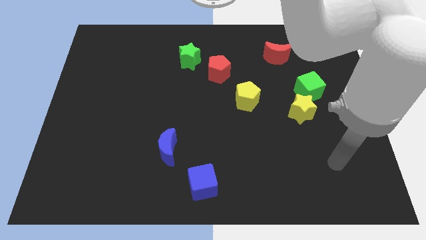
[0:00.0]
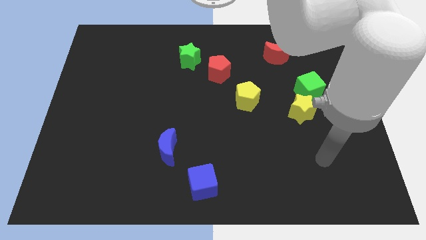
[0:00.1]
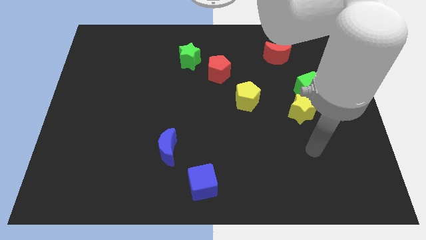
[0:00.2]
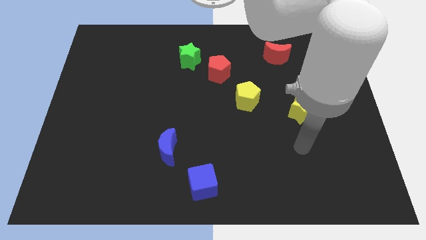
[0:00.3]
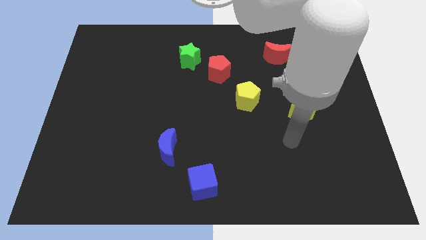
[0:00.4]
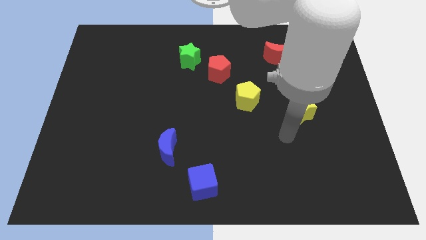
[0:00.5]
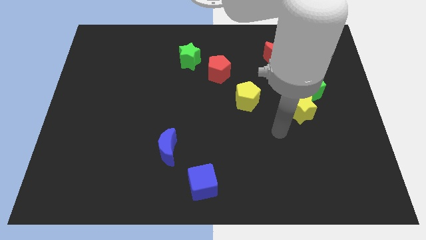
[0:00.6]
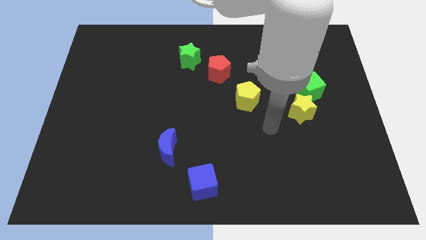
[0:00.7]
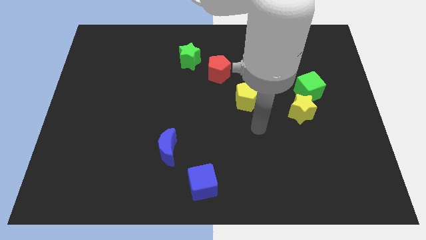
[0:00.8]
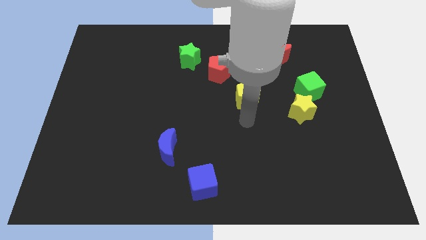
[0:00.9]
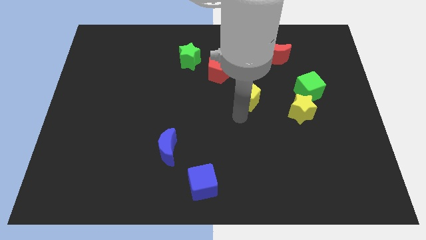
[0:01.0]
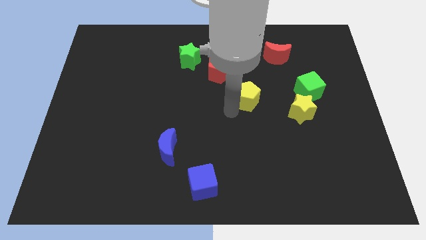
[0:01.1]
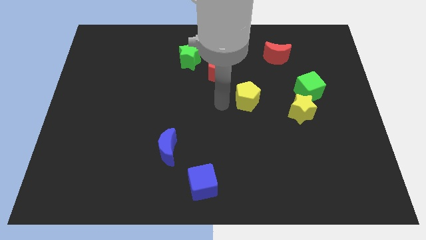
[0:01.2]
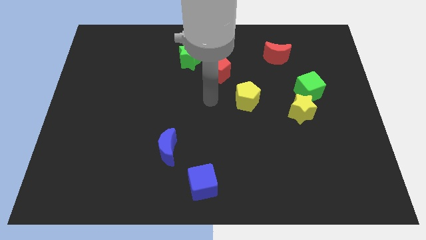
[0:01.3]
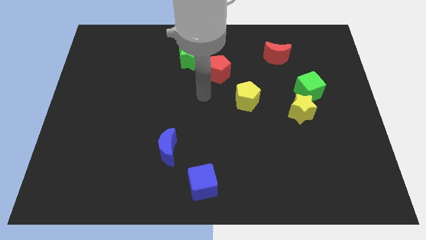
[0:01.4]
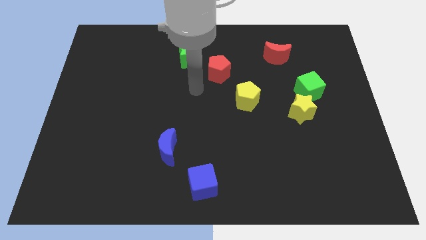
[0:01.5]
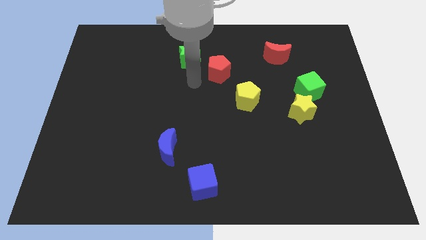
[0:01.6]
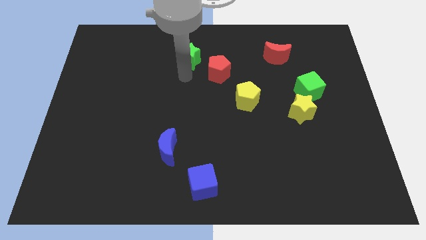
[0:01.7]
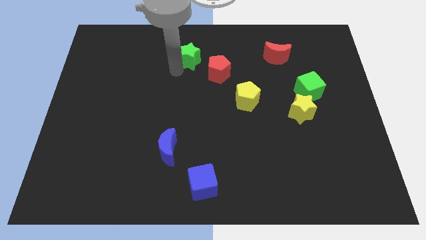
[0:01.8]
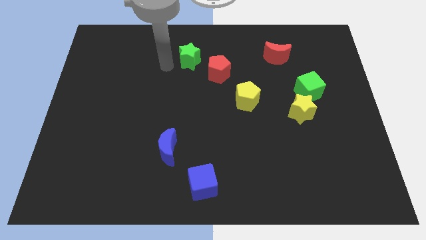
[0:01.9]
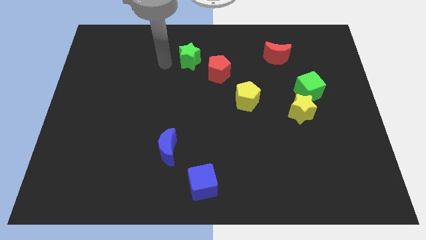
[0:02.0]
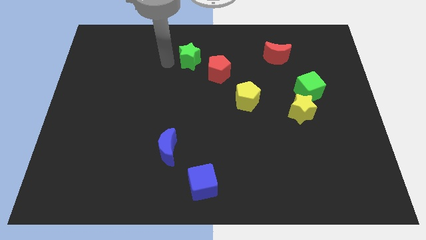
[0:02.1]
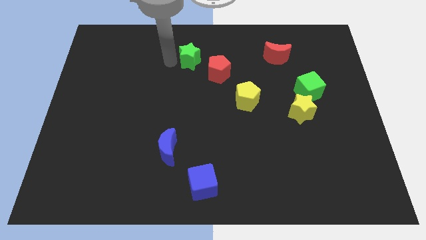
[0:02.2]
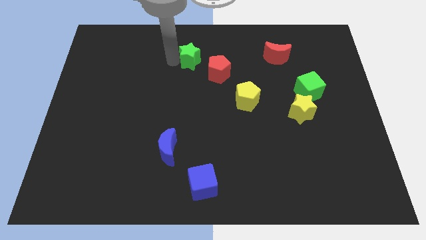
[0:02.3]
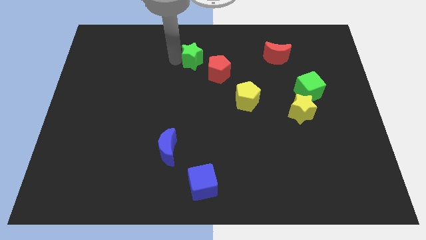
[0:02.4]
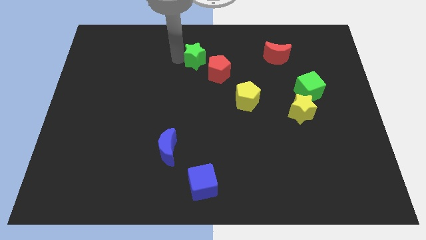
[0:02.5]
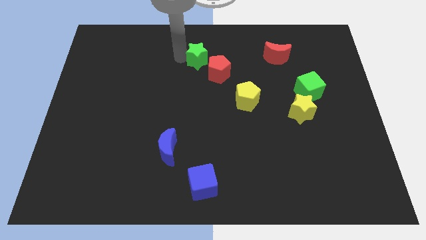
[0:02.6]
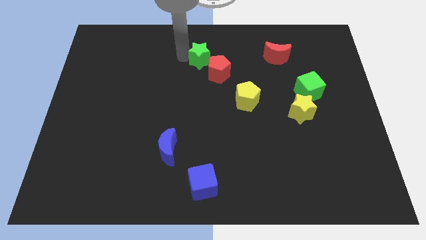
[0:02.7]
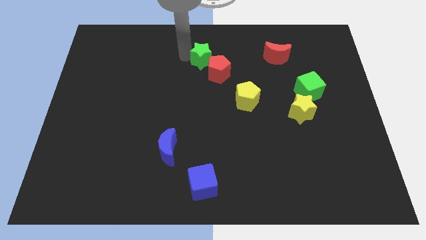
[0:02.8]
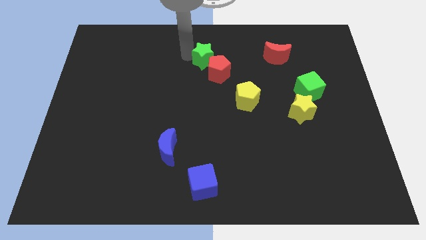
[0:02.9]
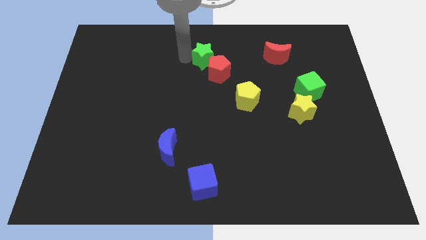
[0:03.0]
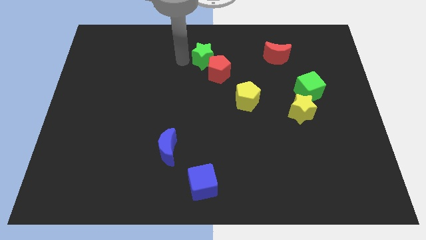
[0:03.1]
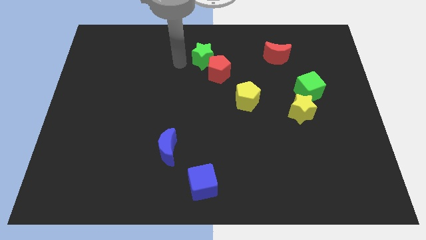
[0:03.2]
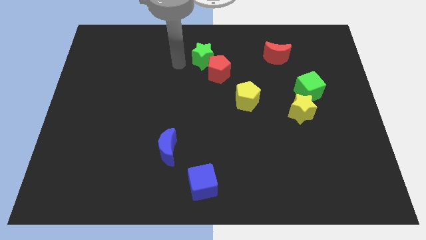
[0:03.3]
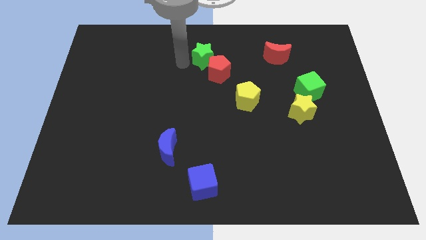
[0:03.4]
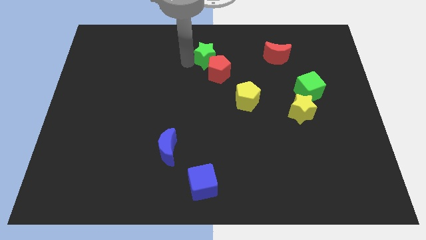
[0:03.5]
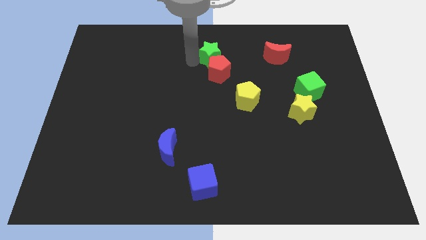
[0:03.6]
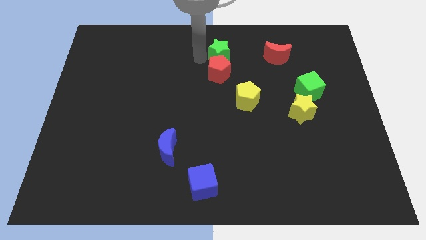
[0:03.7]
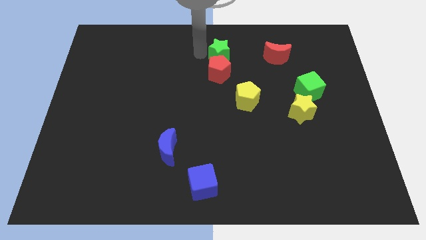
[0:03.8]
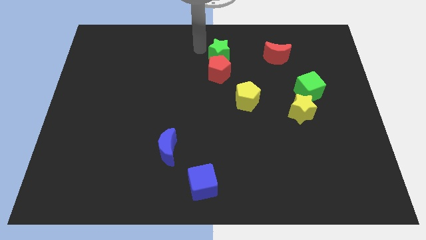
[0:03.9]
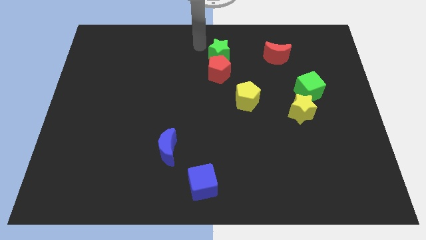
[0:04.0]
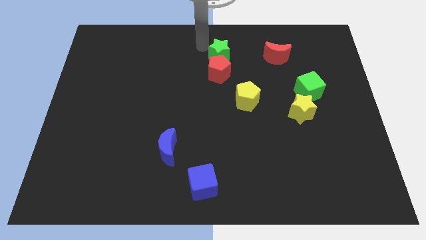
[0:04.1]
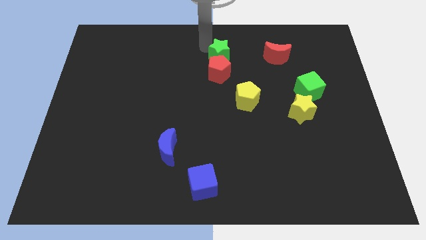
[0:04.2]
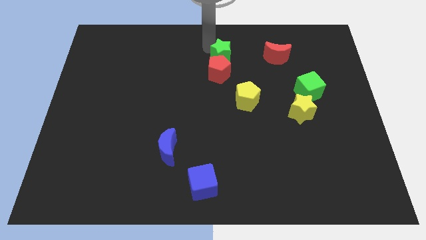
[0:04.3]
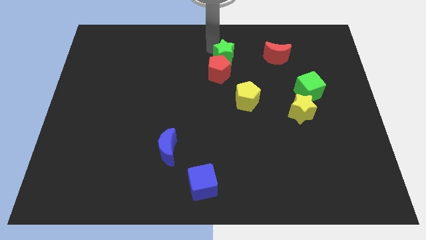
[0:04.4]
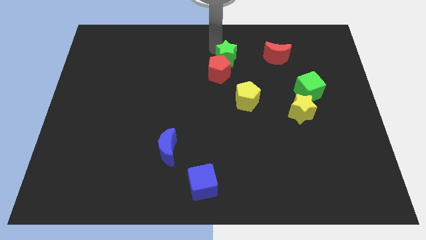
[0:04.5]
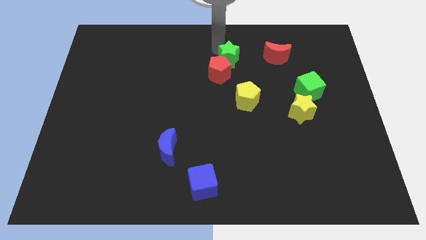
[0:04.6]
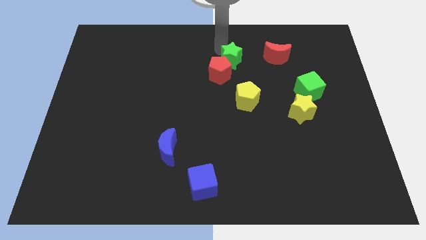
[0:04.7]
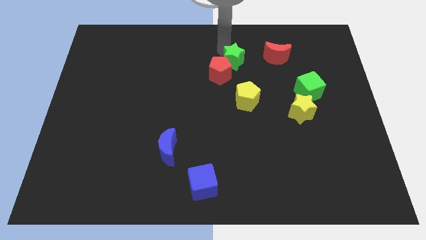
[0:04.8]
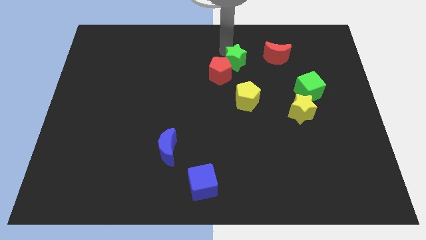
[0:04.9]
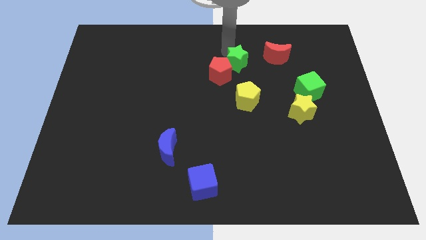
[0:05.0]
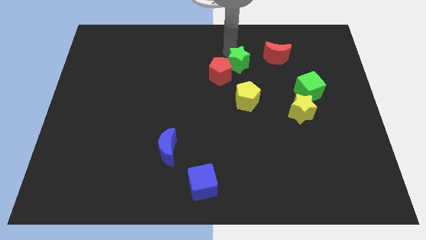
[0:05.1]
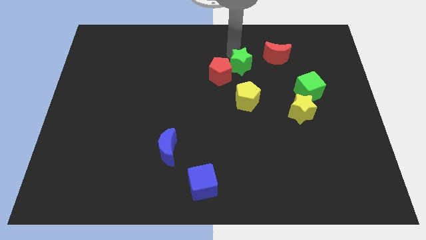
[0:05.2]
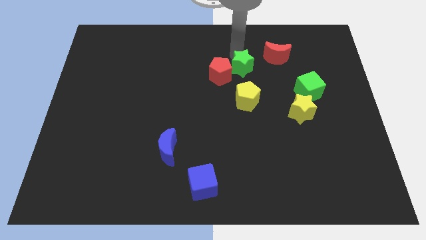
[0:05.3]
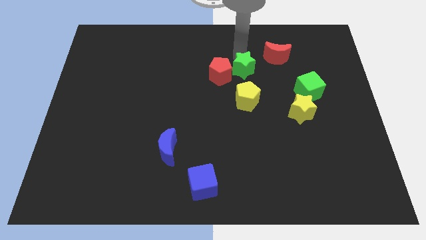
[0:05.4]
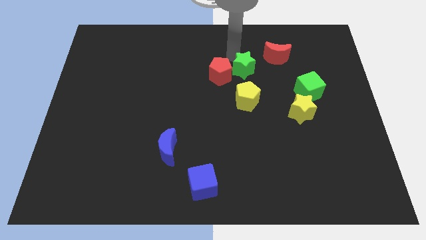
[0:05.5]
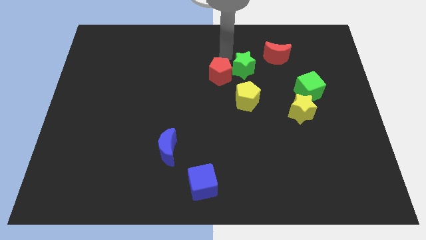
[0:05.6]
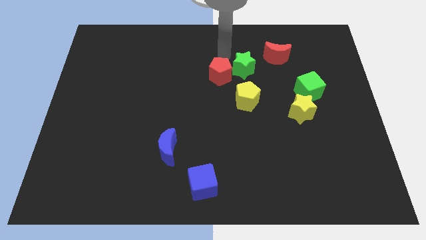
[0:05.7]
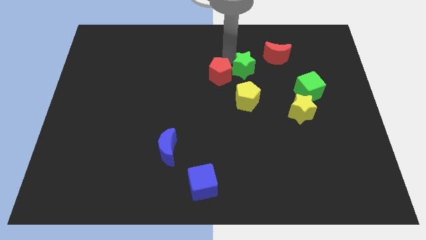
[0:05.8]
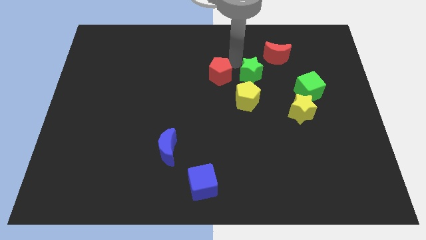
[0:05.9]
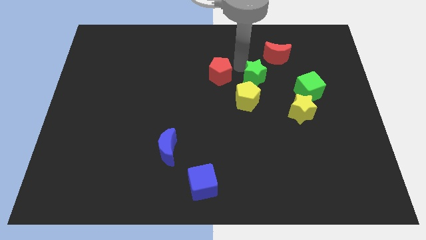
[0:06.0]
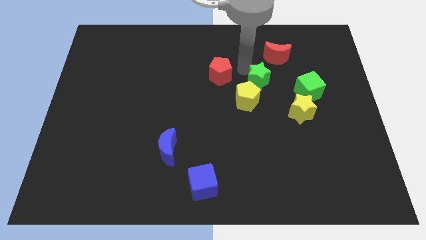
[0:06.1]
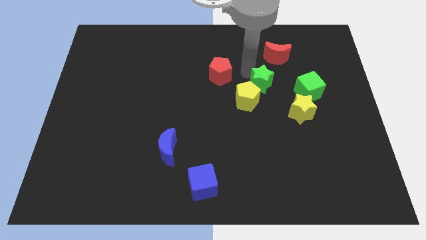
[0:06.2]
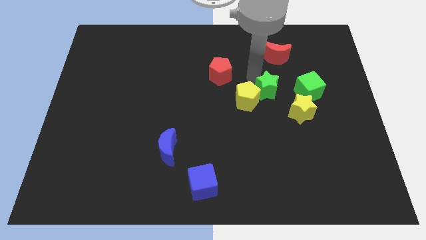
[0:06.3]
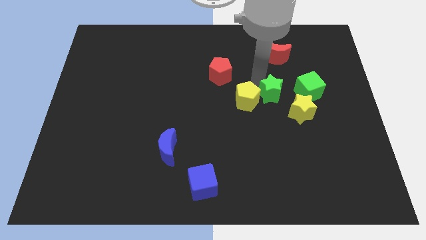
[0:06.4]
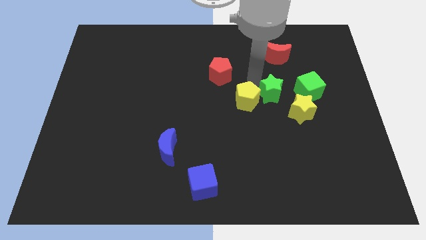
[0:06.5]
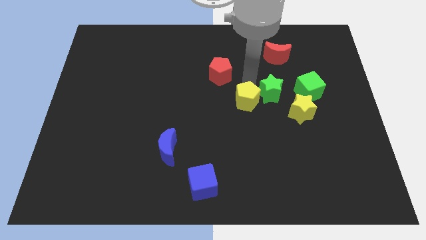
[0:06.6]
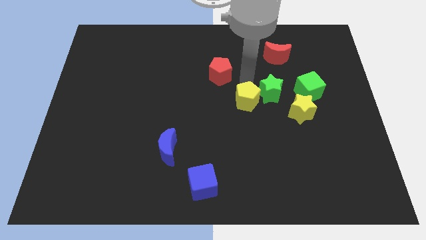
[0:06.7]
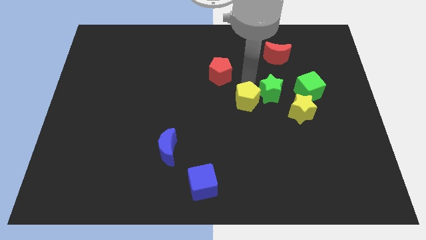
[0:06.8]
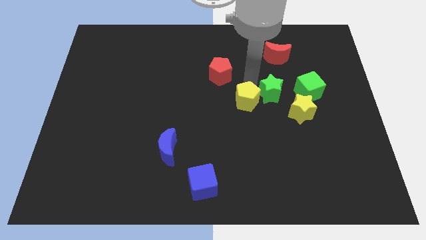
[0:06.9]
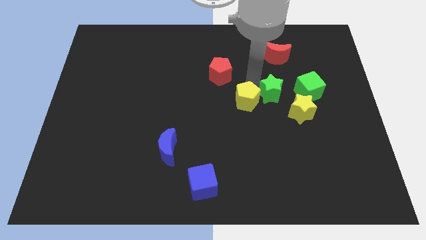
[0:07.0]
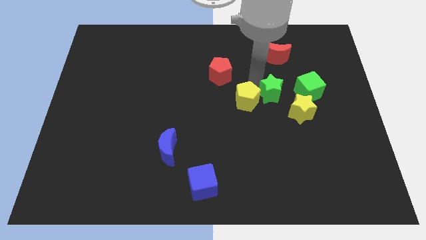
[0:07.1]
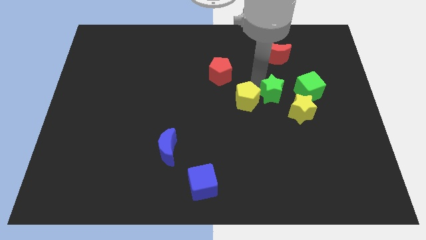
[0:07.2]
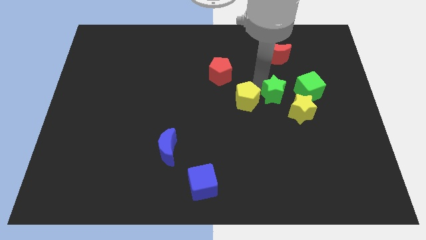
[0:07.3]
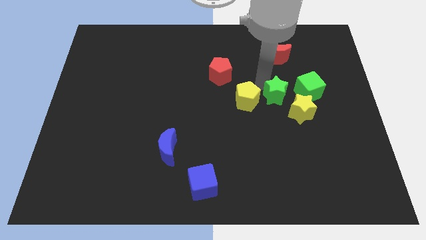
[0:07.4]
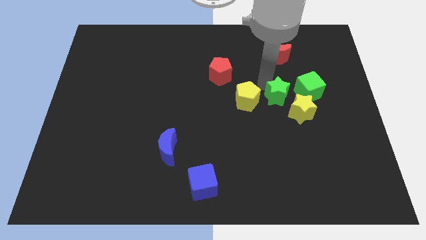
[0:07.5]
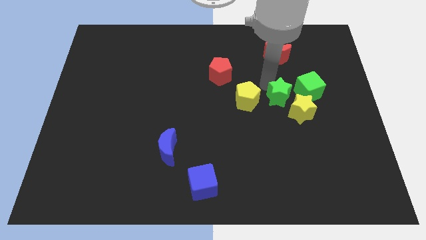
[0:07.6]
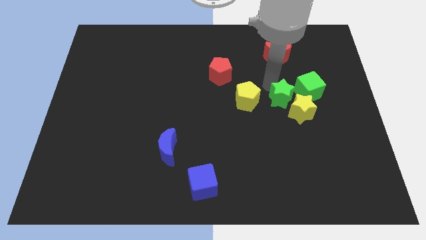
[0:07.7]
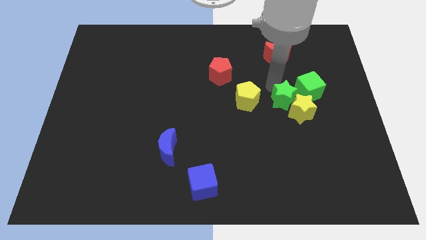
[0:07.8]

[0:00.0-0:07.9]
move the green star next to the yellow star
